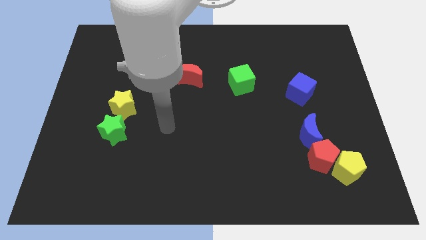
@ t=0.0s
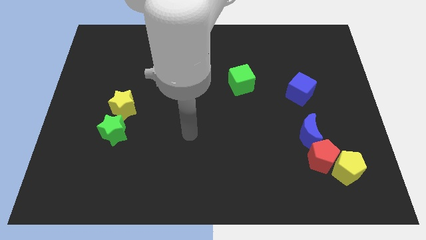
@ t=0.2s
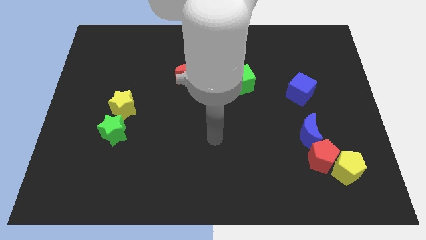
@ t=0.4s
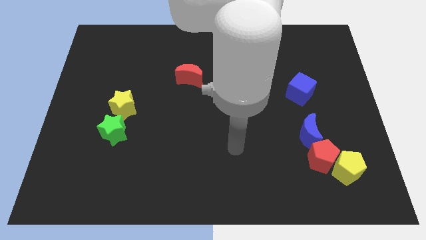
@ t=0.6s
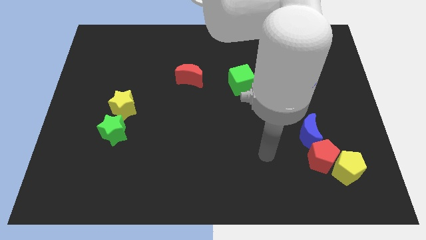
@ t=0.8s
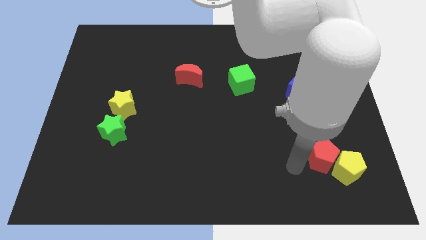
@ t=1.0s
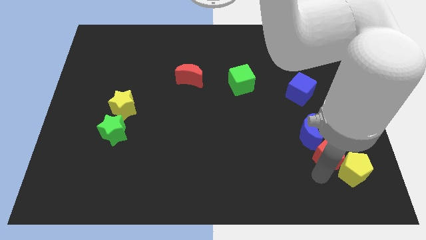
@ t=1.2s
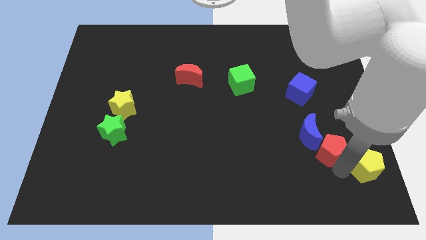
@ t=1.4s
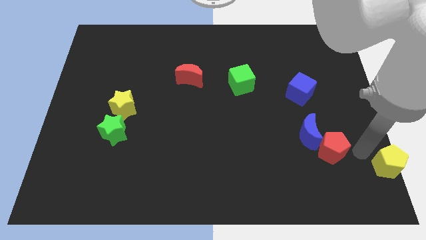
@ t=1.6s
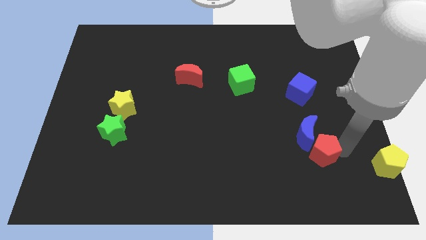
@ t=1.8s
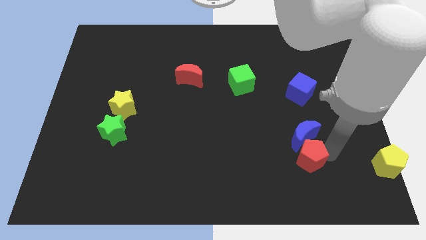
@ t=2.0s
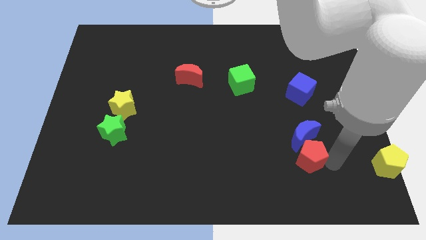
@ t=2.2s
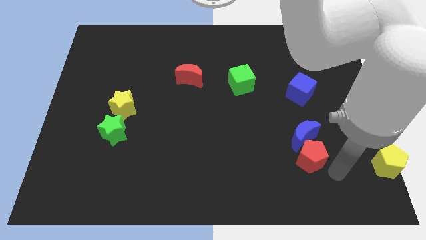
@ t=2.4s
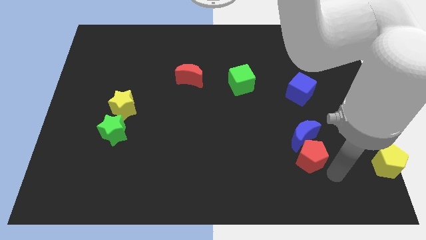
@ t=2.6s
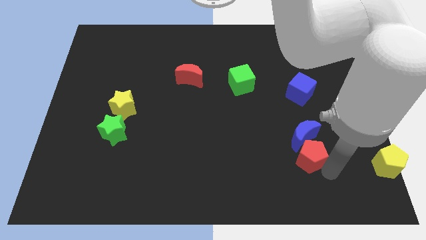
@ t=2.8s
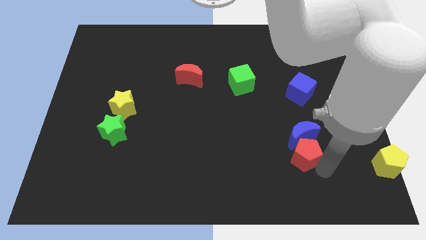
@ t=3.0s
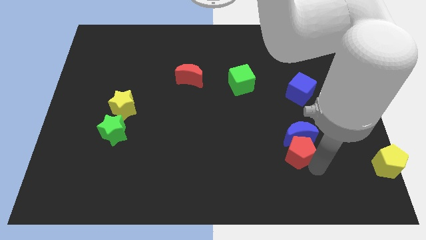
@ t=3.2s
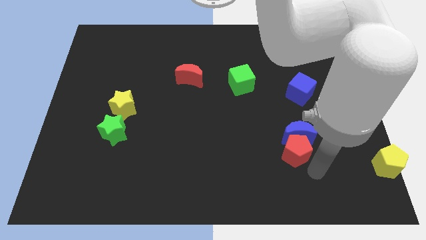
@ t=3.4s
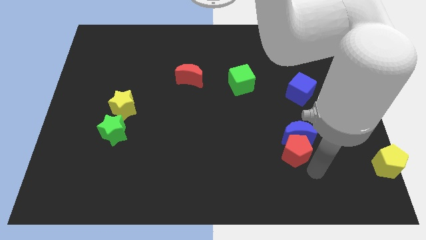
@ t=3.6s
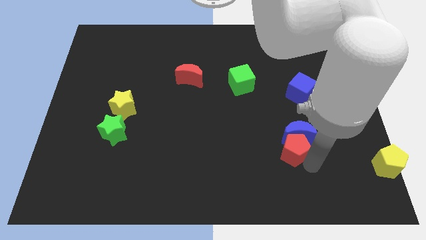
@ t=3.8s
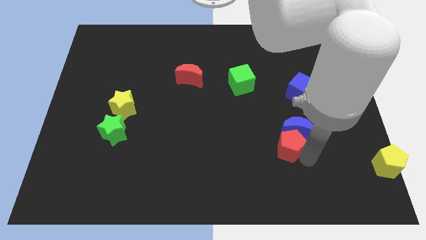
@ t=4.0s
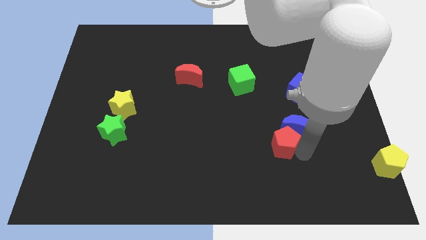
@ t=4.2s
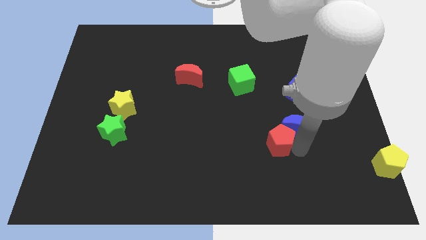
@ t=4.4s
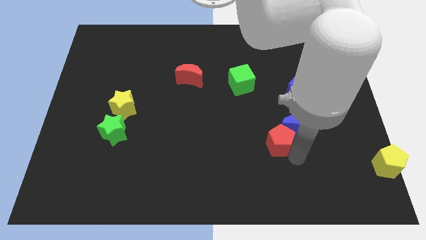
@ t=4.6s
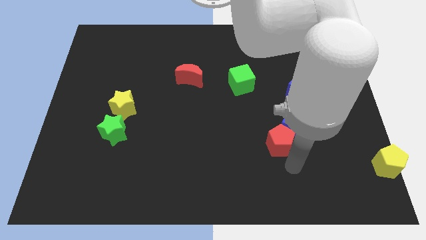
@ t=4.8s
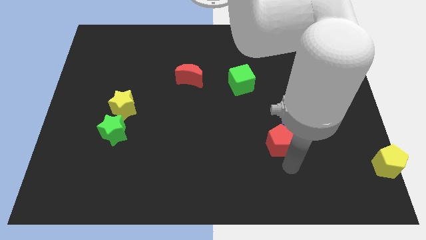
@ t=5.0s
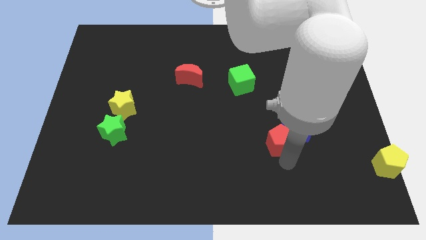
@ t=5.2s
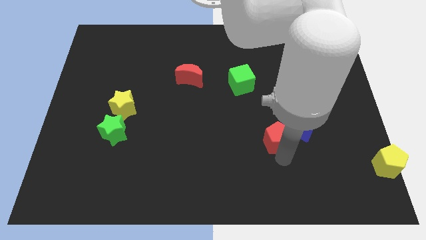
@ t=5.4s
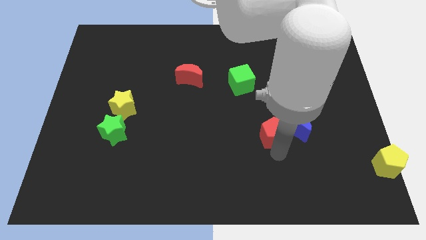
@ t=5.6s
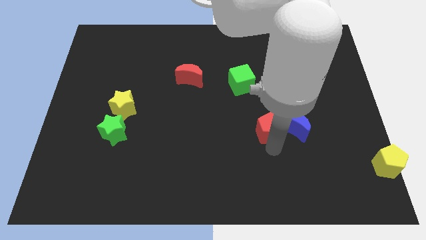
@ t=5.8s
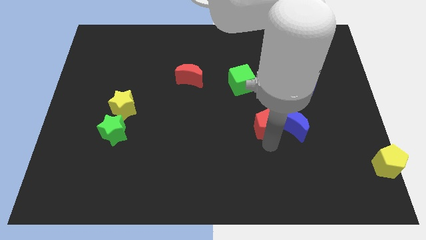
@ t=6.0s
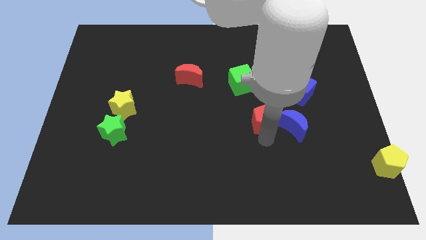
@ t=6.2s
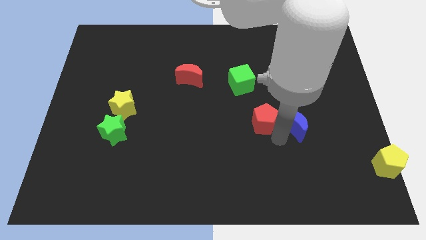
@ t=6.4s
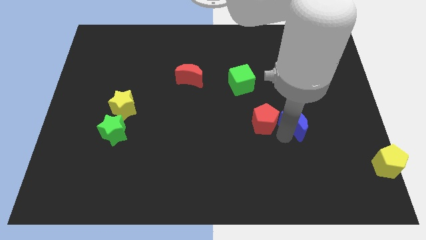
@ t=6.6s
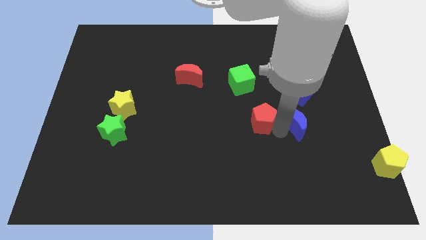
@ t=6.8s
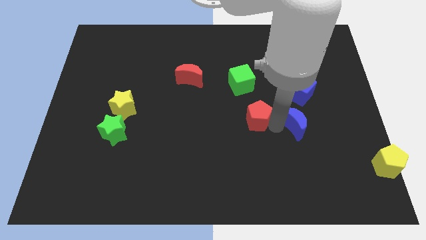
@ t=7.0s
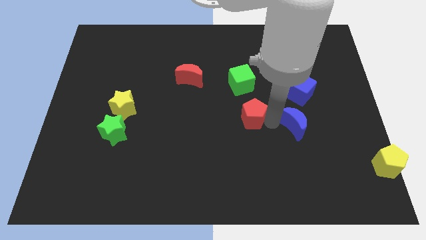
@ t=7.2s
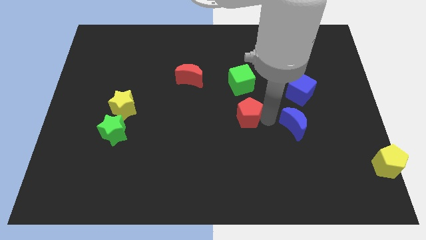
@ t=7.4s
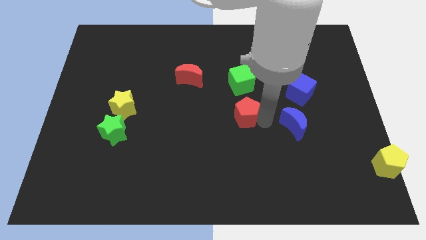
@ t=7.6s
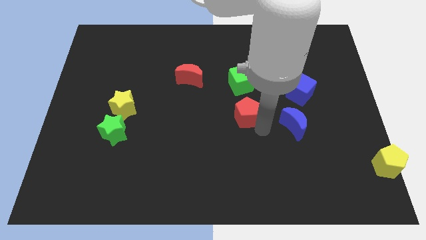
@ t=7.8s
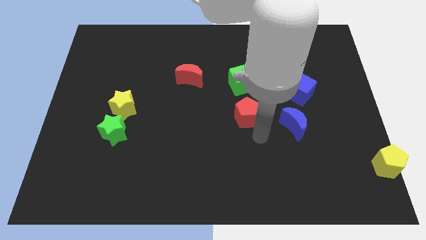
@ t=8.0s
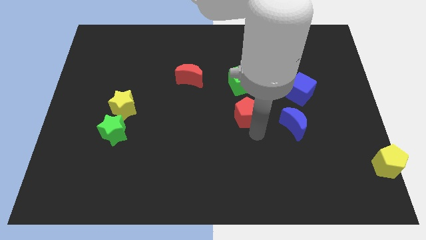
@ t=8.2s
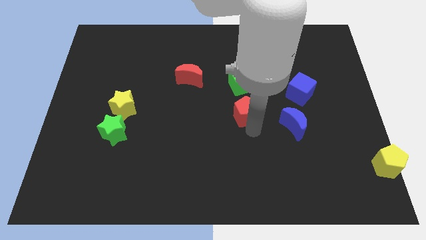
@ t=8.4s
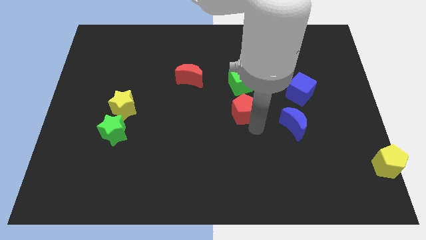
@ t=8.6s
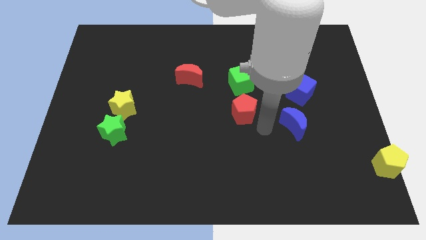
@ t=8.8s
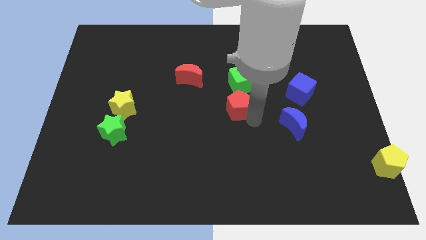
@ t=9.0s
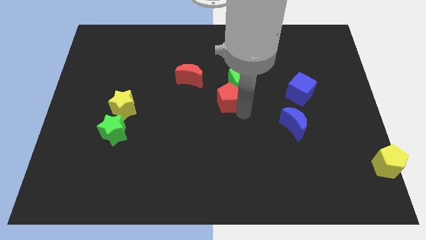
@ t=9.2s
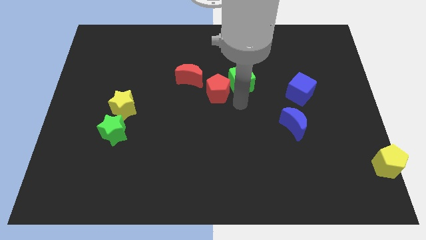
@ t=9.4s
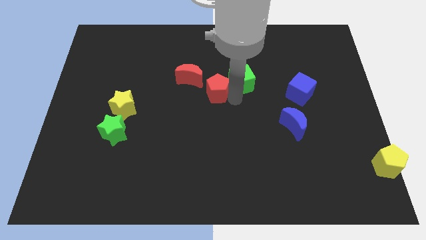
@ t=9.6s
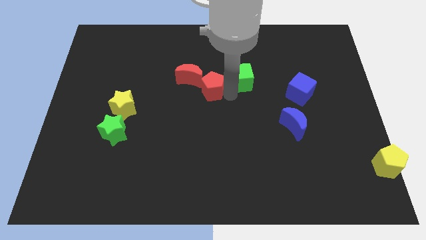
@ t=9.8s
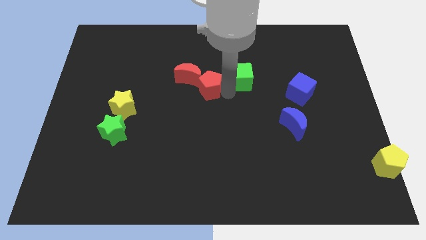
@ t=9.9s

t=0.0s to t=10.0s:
put the red pentagon to the red moon

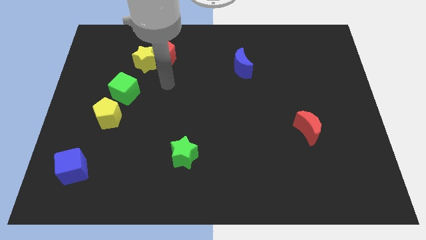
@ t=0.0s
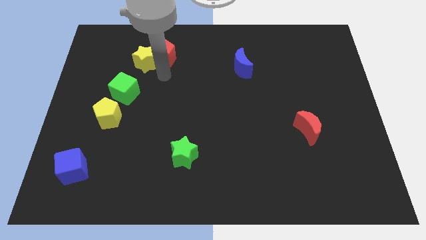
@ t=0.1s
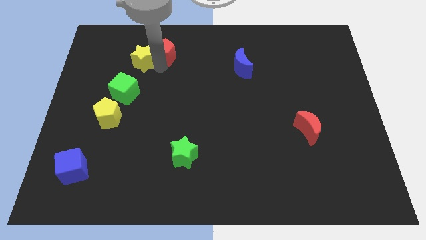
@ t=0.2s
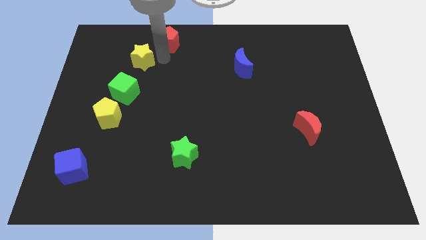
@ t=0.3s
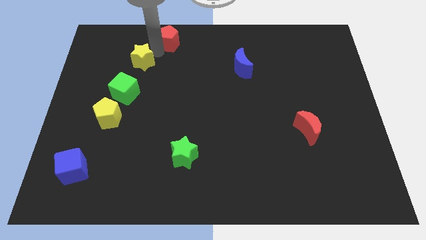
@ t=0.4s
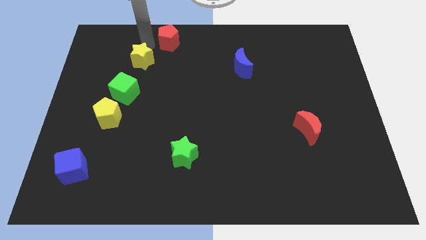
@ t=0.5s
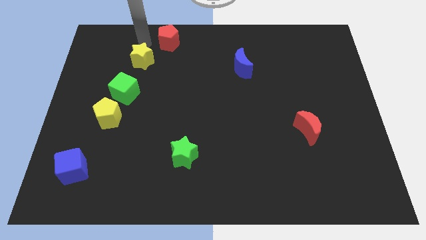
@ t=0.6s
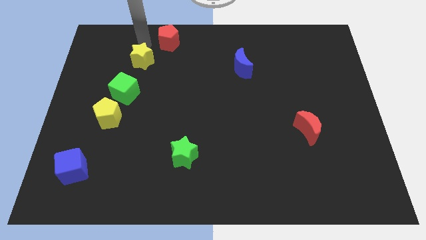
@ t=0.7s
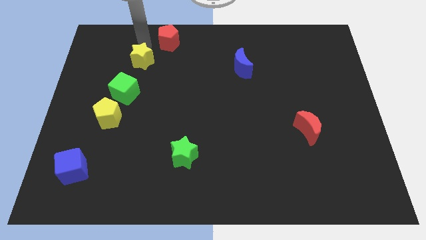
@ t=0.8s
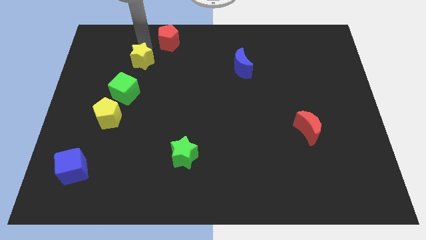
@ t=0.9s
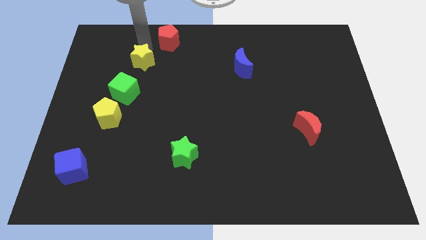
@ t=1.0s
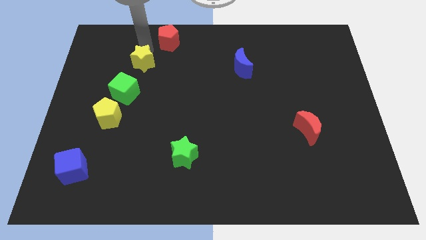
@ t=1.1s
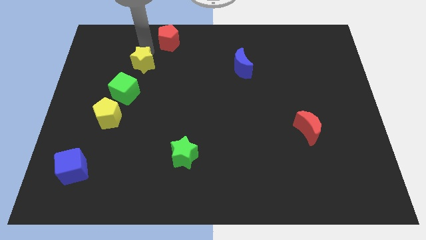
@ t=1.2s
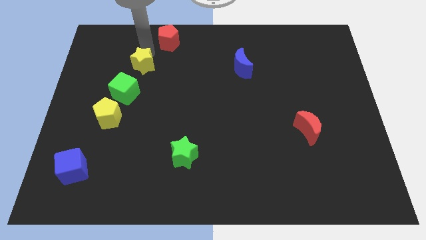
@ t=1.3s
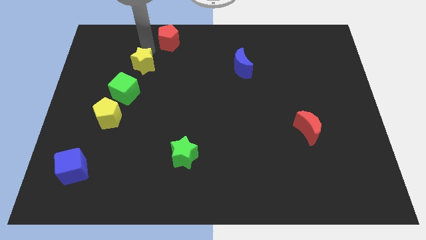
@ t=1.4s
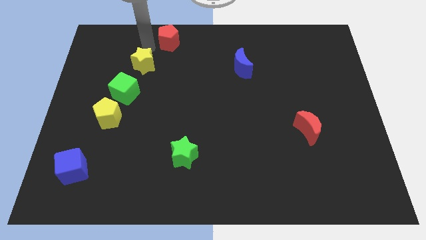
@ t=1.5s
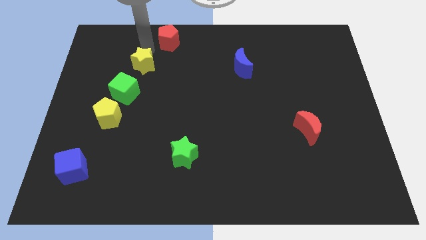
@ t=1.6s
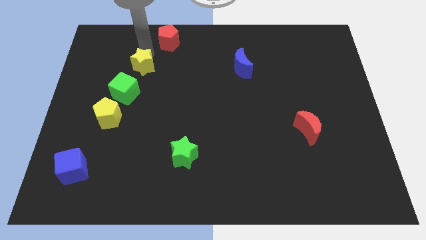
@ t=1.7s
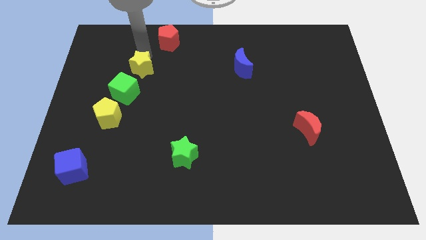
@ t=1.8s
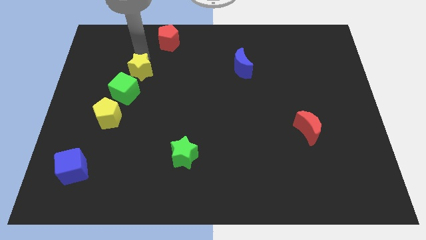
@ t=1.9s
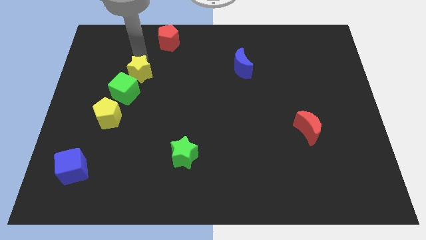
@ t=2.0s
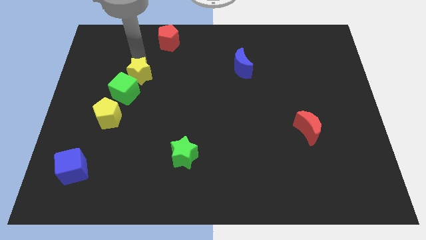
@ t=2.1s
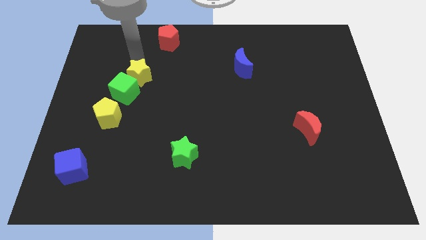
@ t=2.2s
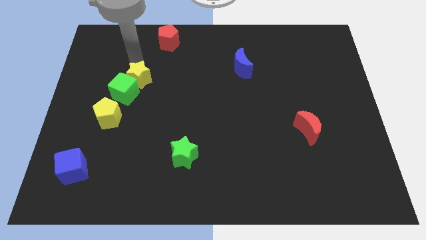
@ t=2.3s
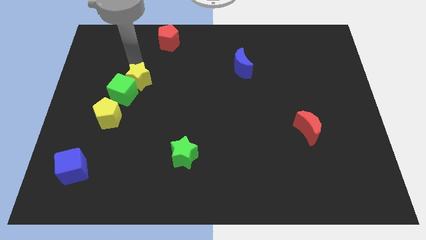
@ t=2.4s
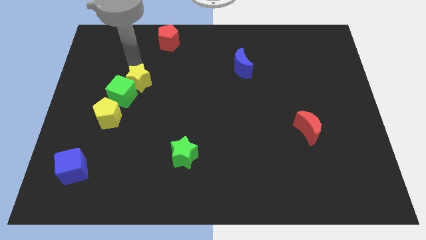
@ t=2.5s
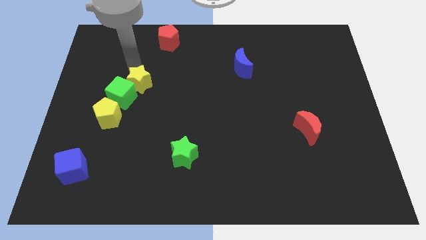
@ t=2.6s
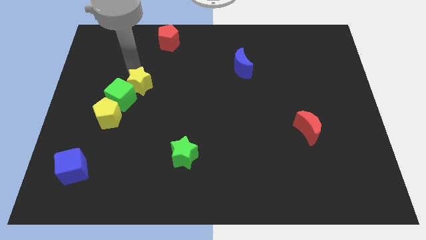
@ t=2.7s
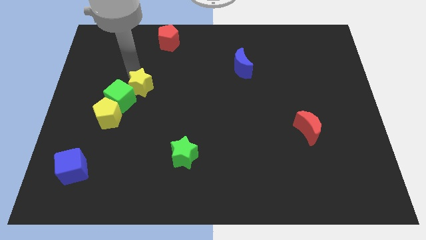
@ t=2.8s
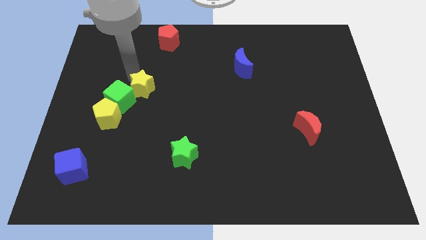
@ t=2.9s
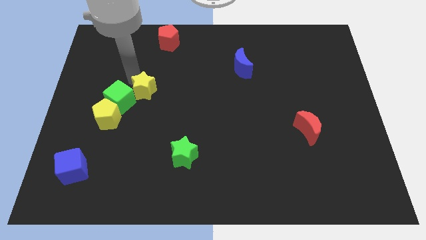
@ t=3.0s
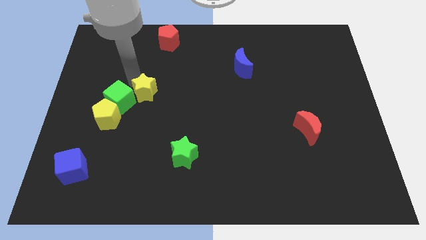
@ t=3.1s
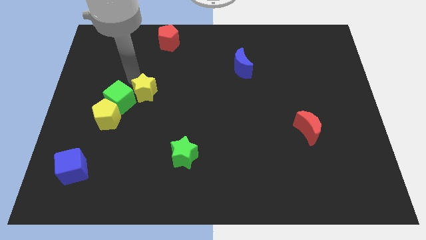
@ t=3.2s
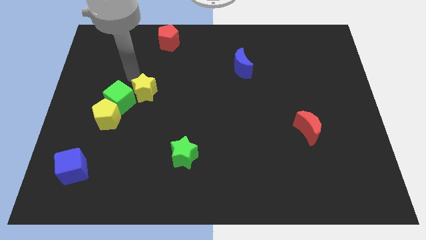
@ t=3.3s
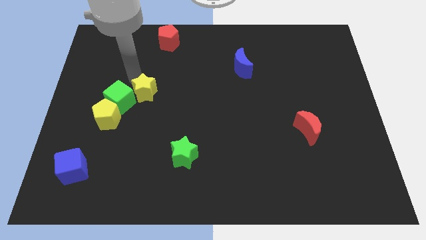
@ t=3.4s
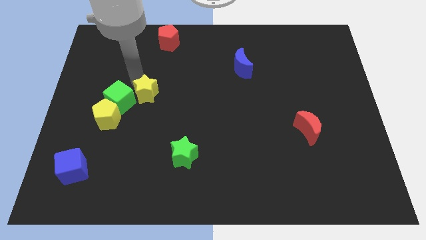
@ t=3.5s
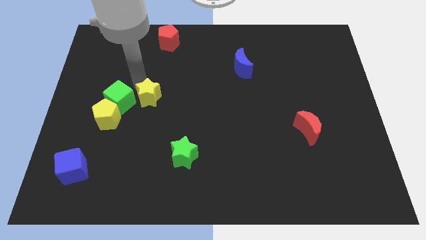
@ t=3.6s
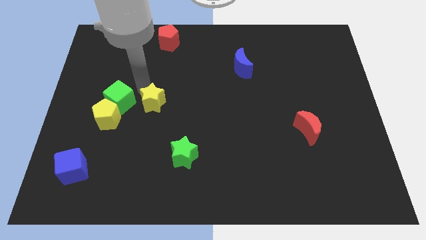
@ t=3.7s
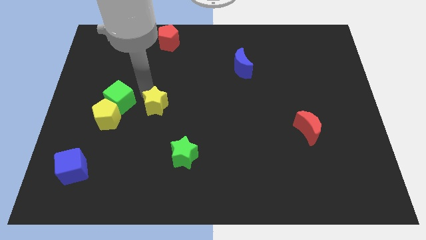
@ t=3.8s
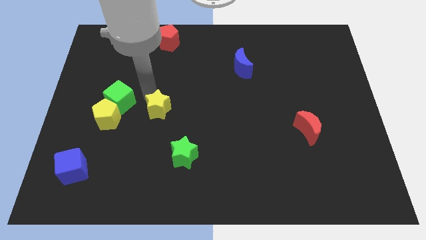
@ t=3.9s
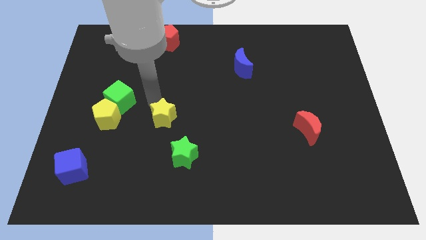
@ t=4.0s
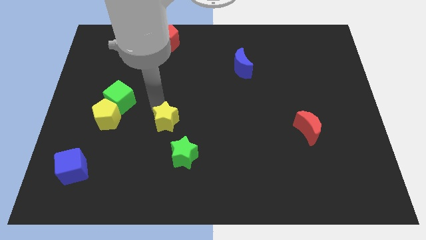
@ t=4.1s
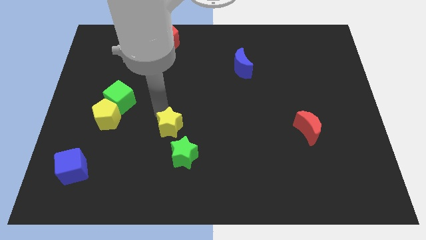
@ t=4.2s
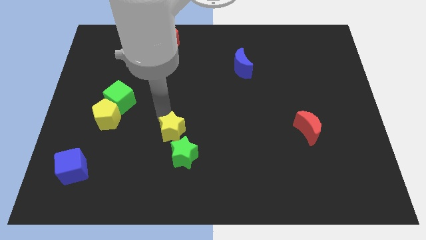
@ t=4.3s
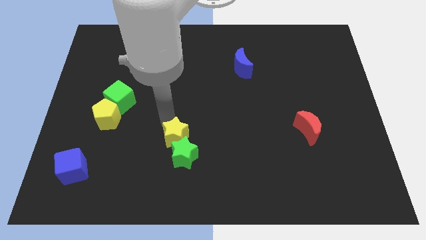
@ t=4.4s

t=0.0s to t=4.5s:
slide the yellow star next to the green star
